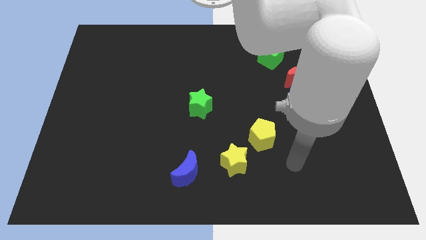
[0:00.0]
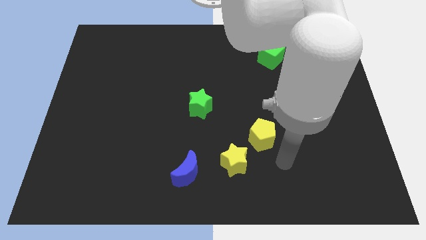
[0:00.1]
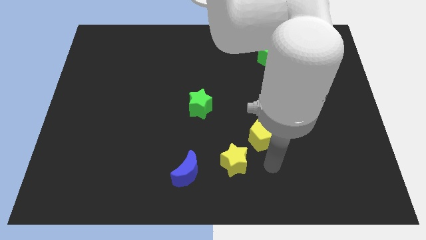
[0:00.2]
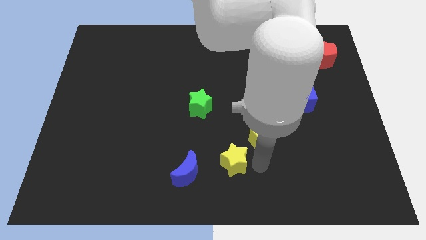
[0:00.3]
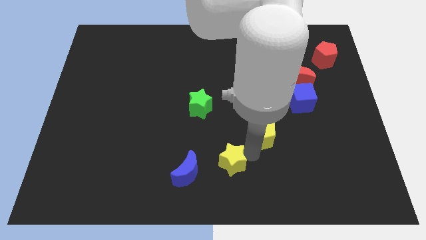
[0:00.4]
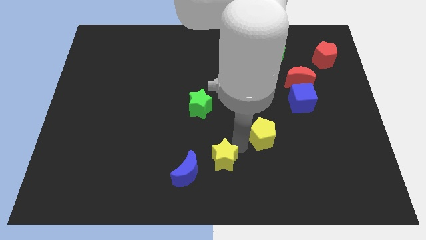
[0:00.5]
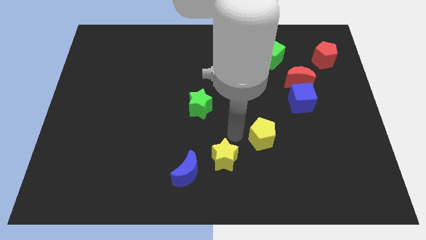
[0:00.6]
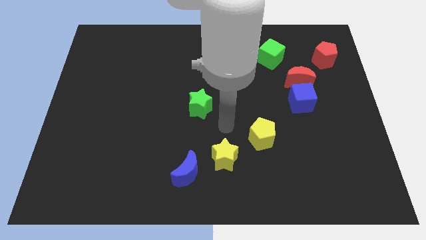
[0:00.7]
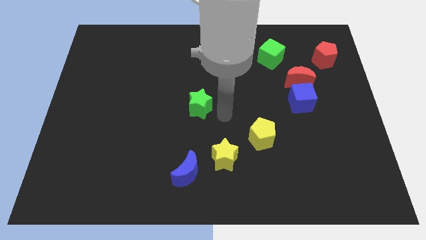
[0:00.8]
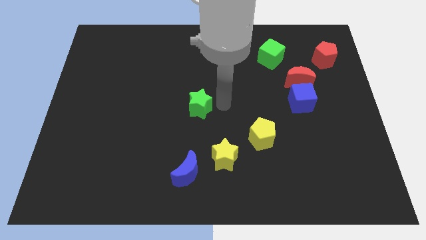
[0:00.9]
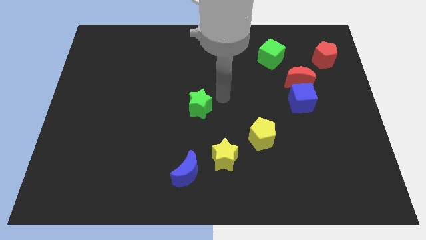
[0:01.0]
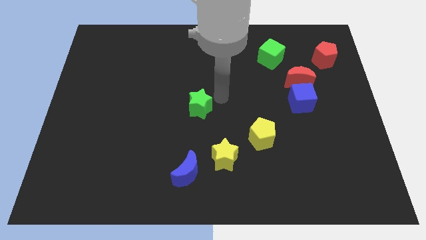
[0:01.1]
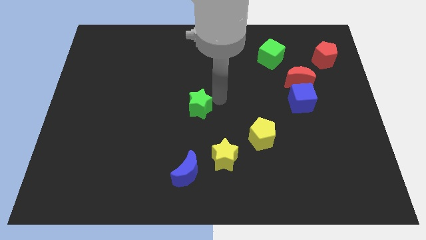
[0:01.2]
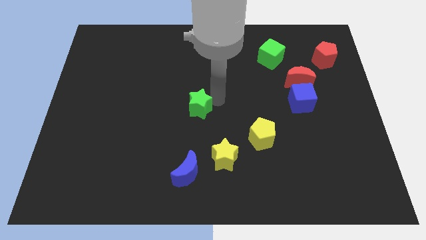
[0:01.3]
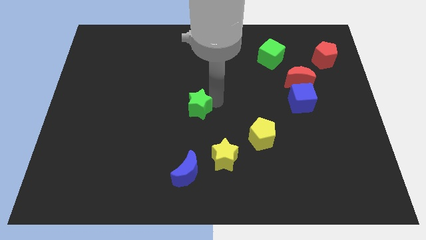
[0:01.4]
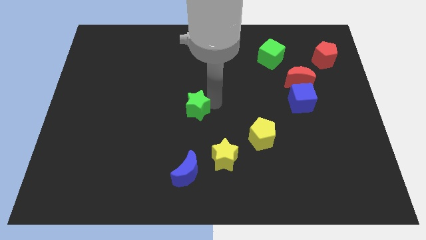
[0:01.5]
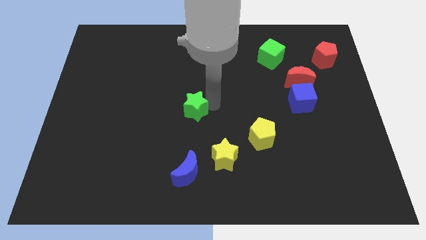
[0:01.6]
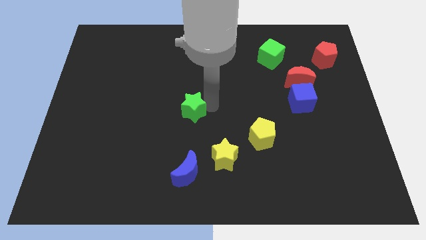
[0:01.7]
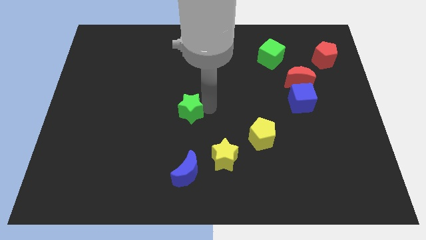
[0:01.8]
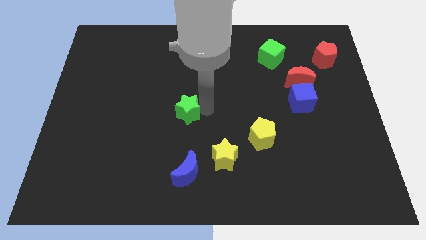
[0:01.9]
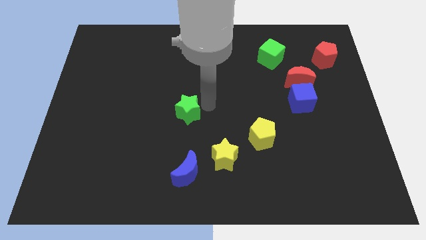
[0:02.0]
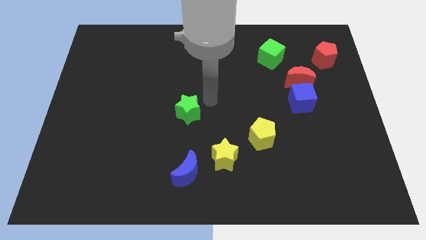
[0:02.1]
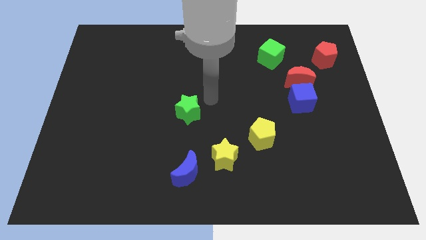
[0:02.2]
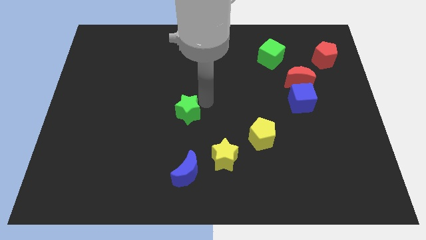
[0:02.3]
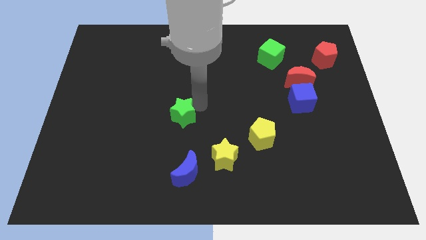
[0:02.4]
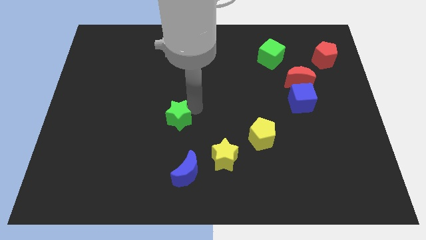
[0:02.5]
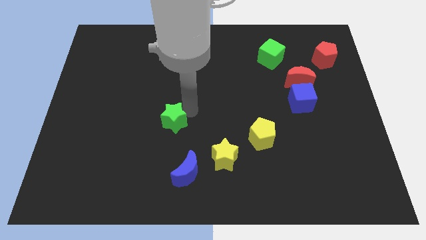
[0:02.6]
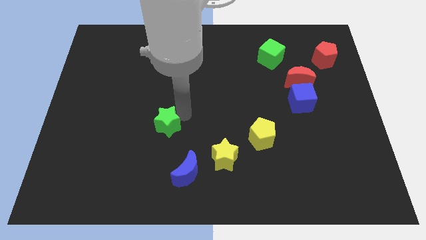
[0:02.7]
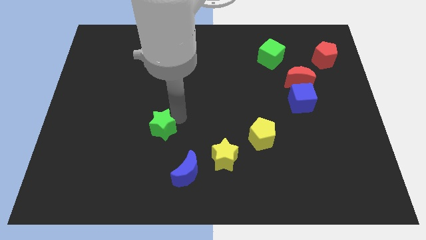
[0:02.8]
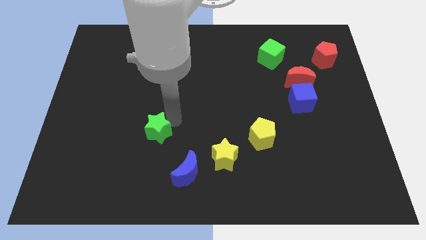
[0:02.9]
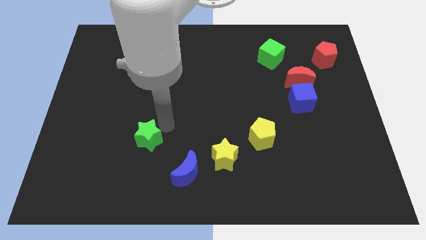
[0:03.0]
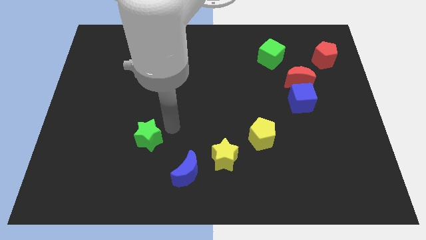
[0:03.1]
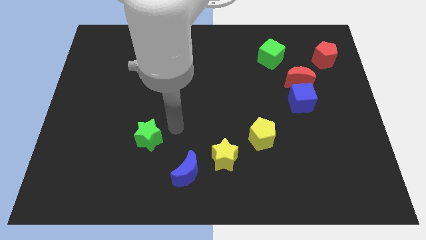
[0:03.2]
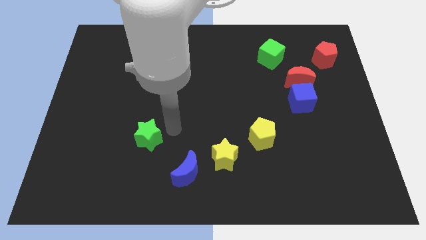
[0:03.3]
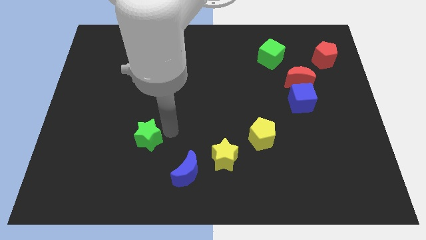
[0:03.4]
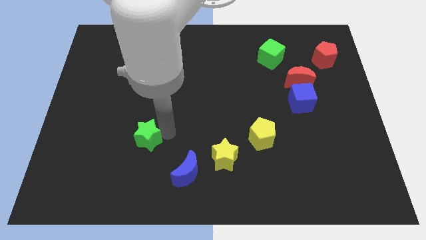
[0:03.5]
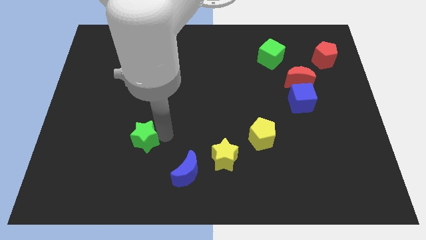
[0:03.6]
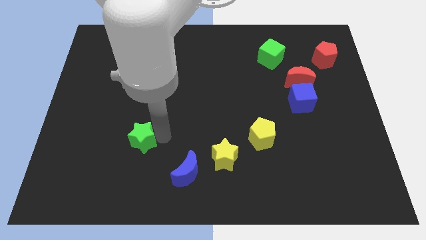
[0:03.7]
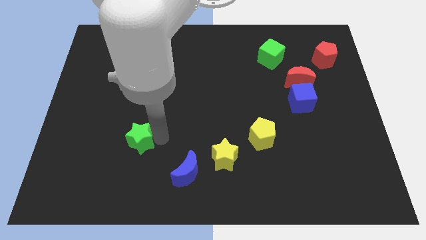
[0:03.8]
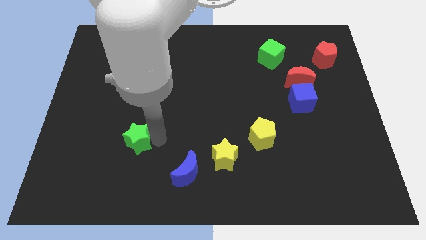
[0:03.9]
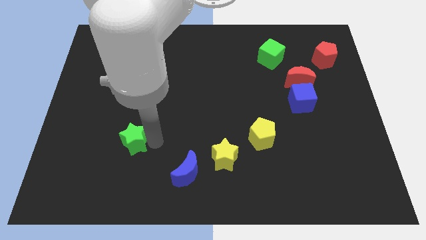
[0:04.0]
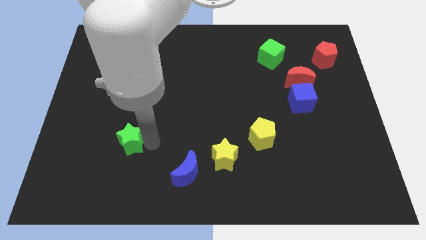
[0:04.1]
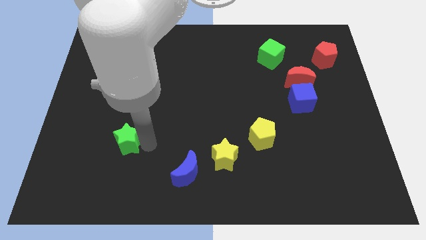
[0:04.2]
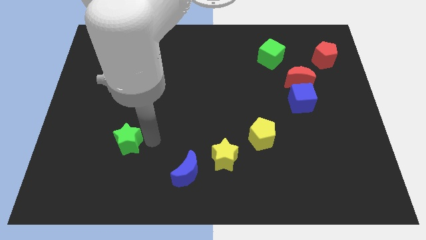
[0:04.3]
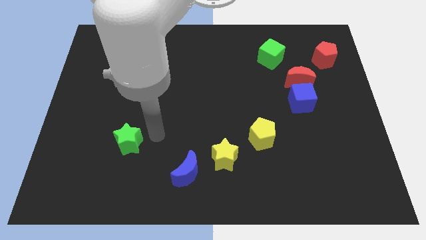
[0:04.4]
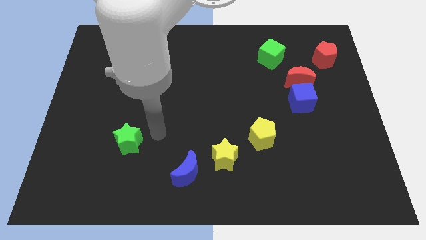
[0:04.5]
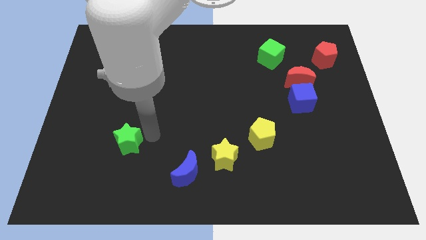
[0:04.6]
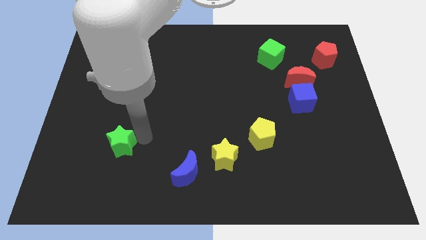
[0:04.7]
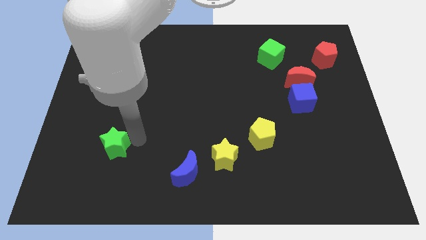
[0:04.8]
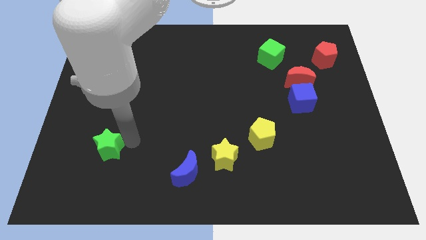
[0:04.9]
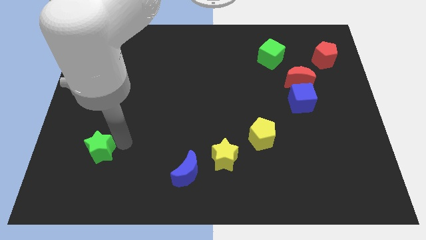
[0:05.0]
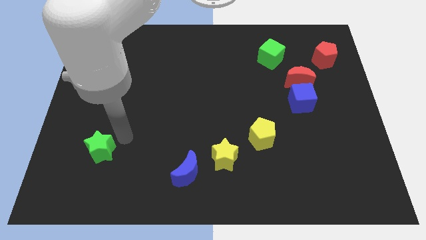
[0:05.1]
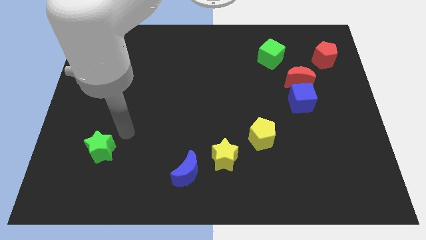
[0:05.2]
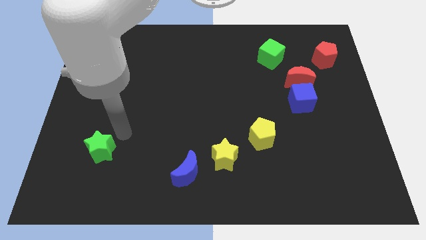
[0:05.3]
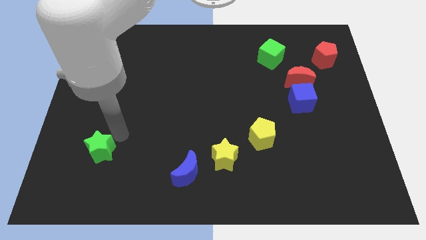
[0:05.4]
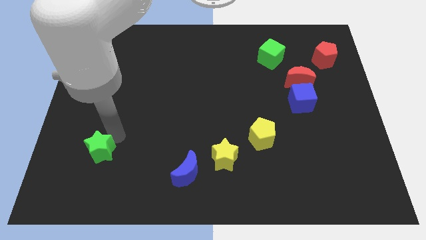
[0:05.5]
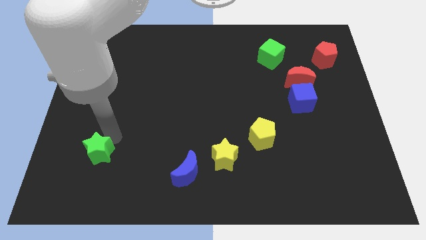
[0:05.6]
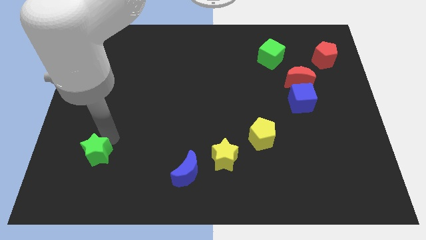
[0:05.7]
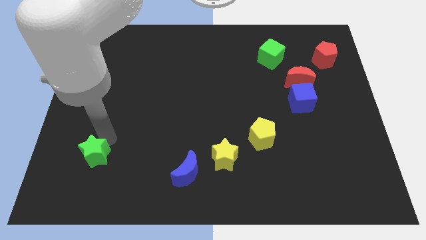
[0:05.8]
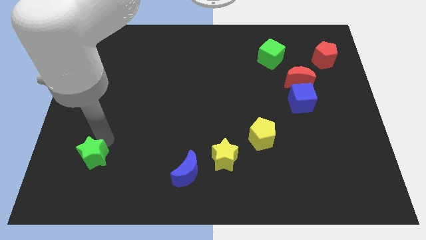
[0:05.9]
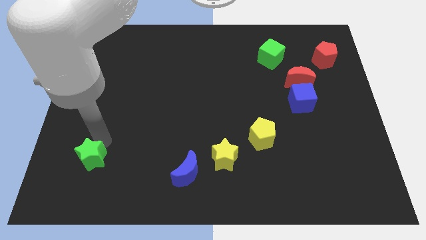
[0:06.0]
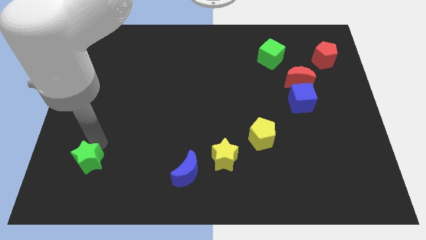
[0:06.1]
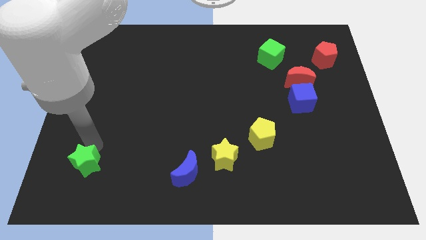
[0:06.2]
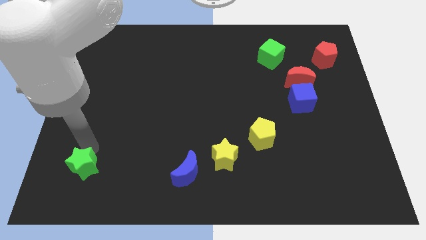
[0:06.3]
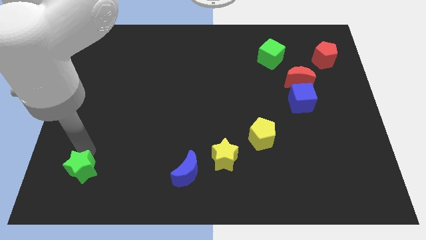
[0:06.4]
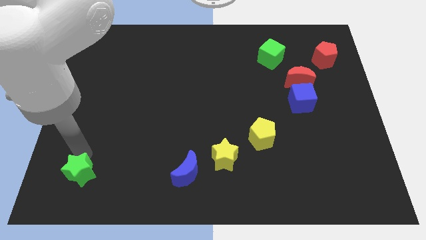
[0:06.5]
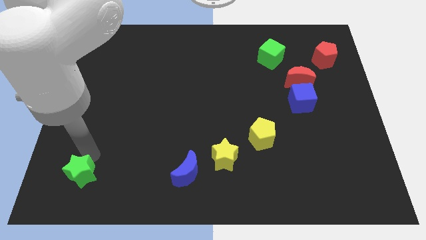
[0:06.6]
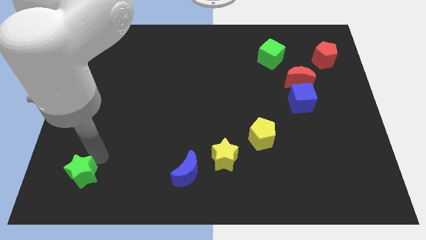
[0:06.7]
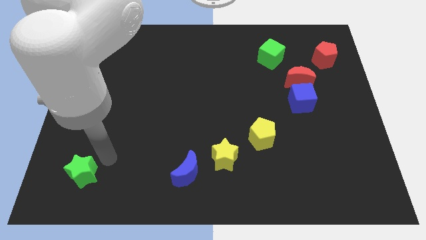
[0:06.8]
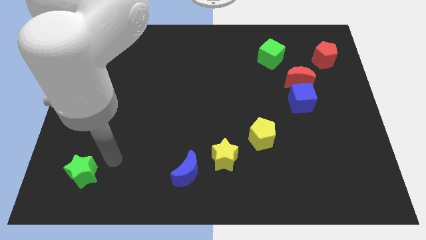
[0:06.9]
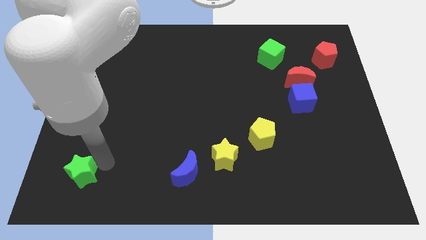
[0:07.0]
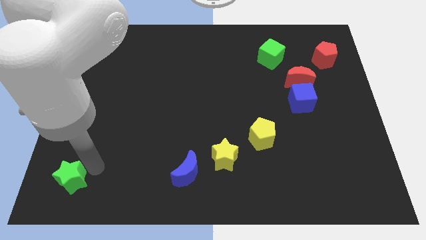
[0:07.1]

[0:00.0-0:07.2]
push the green star to the lower left corner

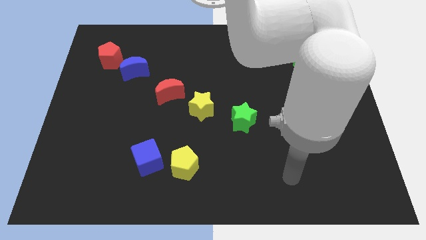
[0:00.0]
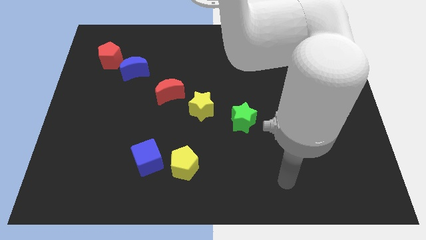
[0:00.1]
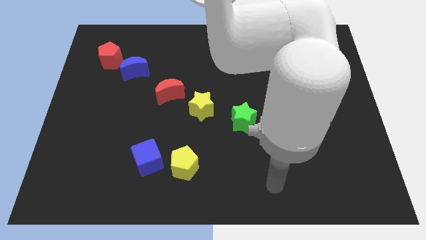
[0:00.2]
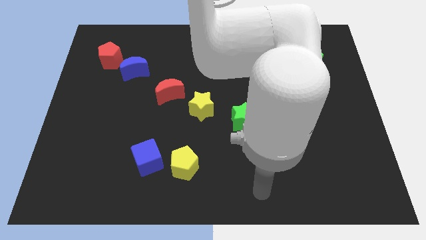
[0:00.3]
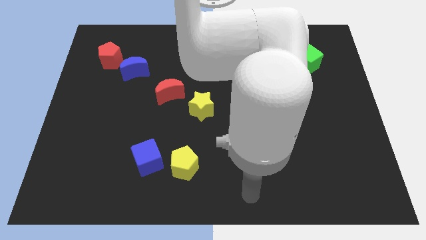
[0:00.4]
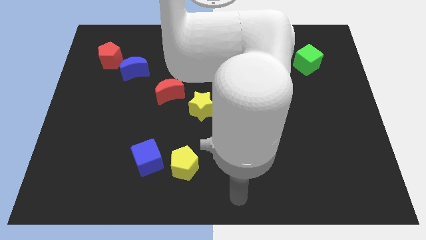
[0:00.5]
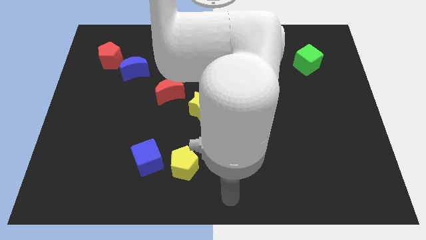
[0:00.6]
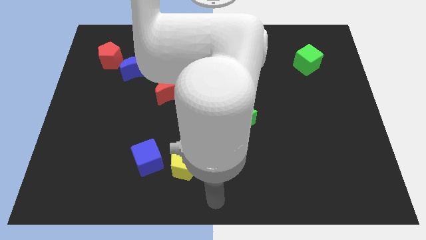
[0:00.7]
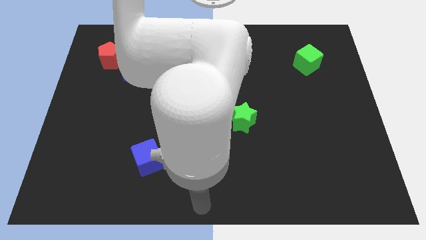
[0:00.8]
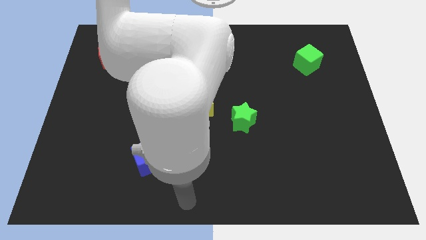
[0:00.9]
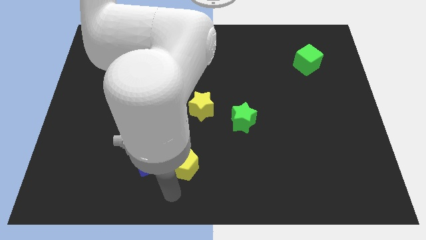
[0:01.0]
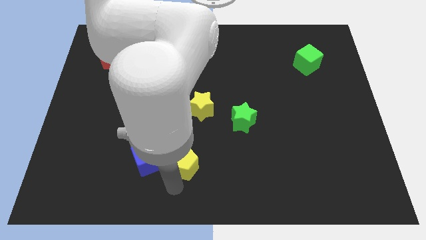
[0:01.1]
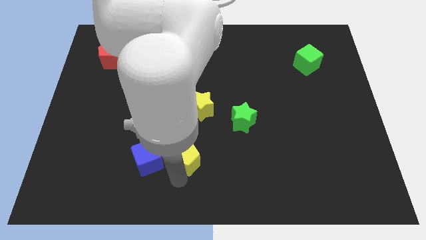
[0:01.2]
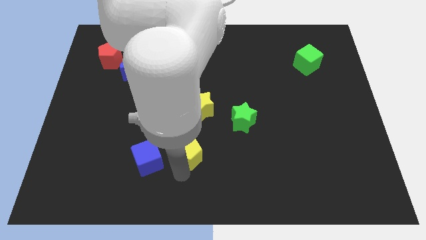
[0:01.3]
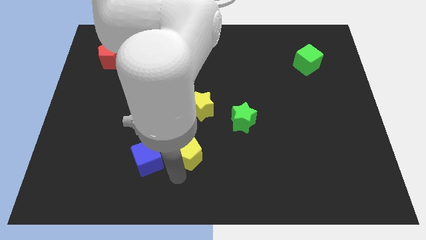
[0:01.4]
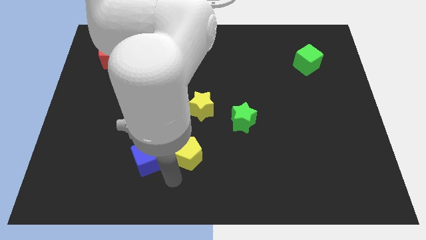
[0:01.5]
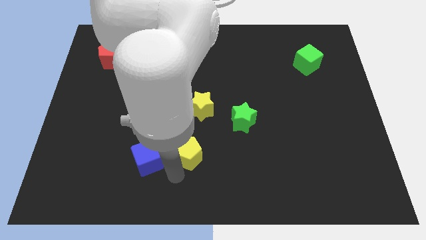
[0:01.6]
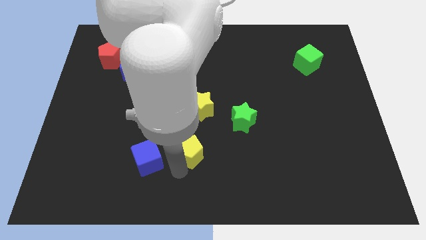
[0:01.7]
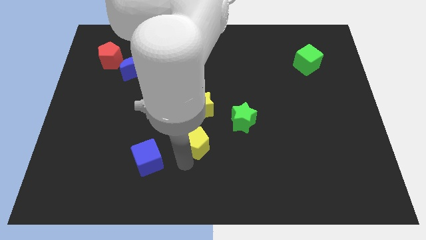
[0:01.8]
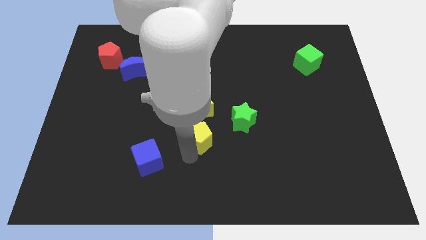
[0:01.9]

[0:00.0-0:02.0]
put the yellow pentagon to the middle of the board
